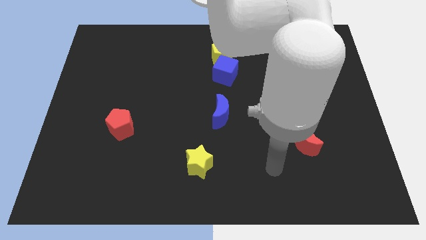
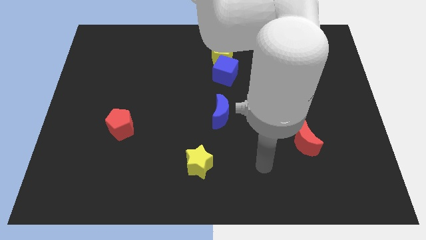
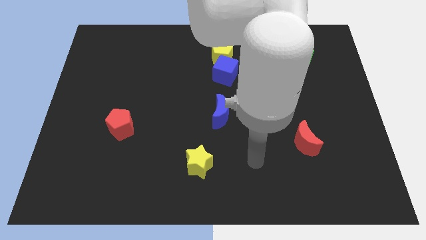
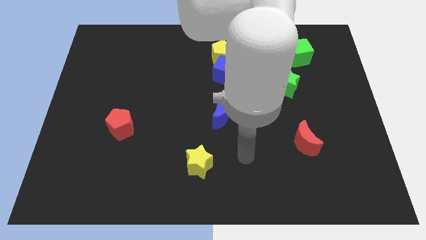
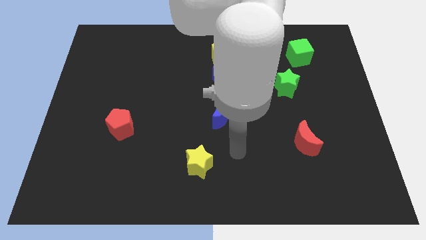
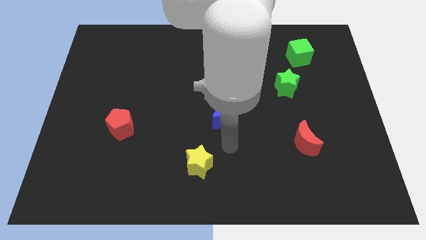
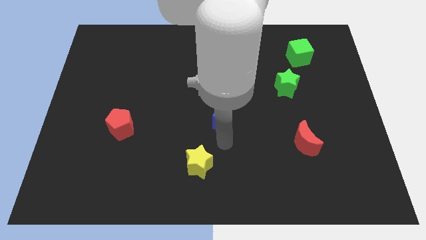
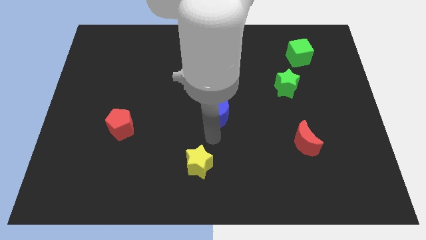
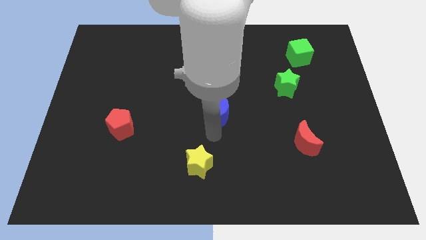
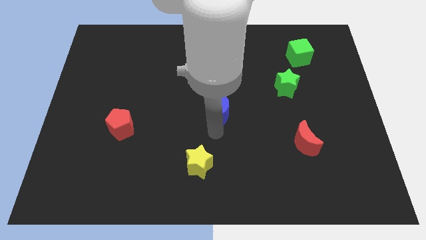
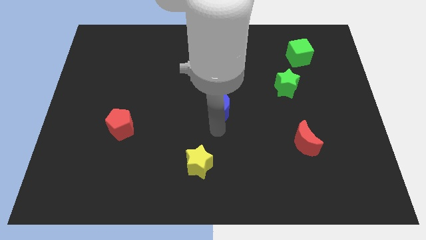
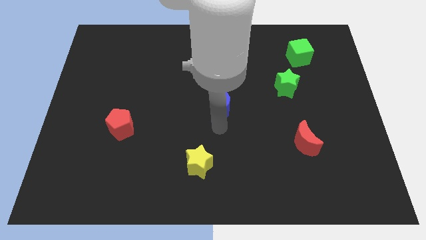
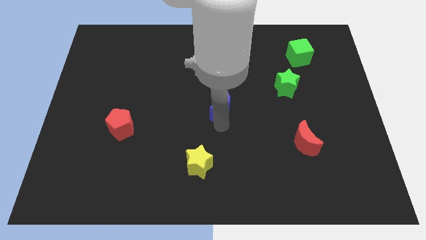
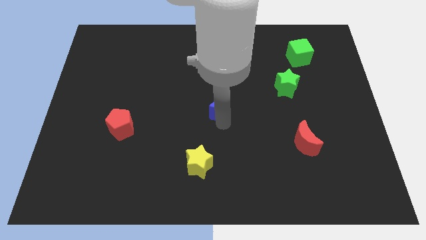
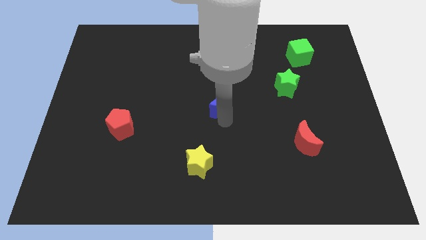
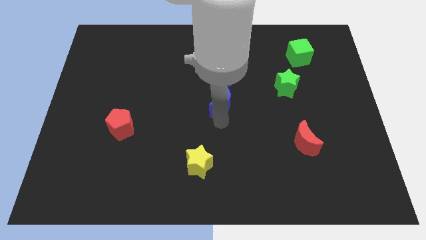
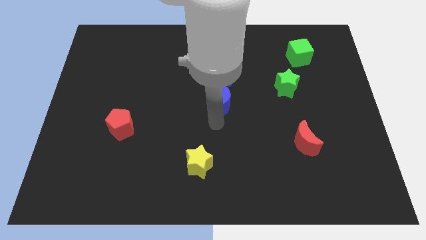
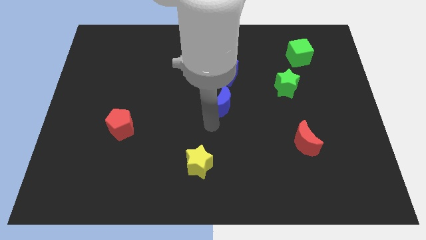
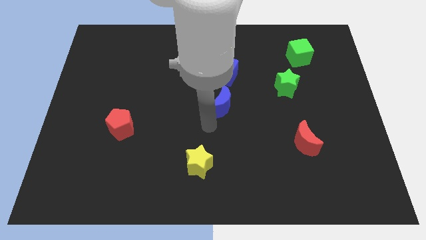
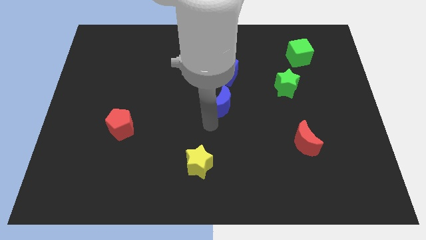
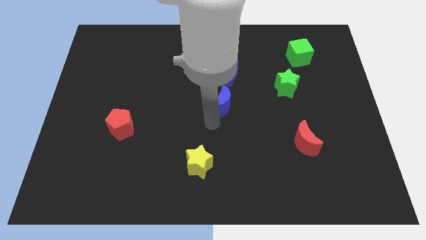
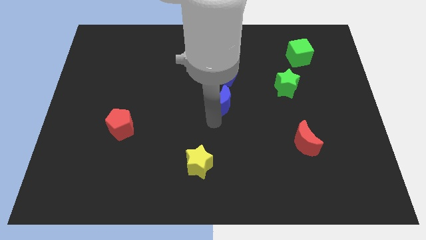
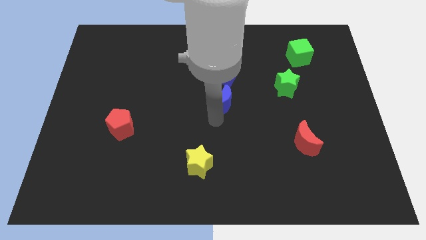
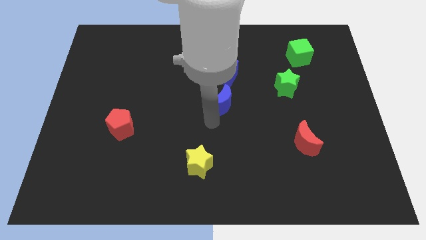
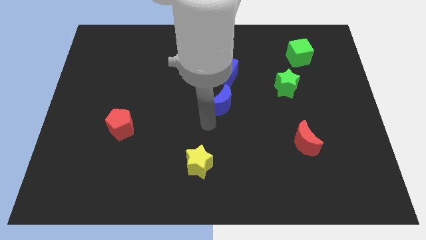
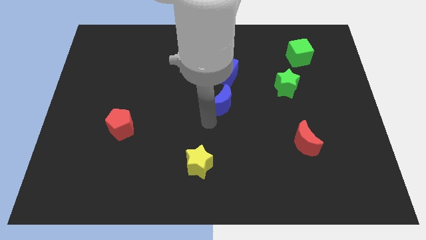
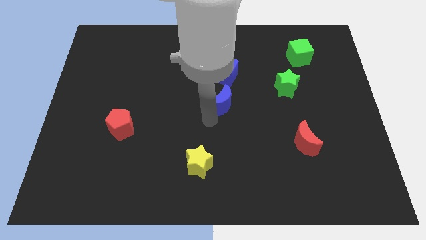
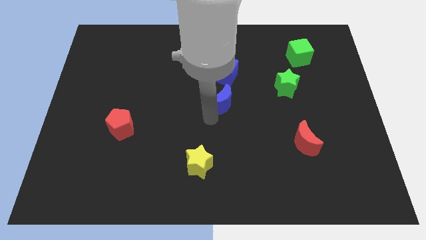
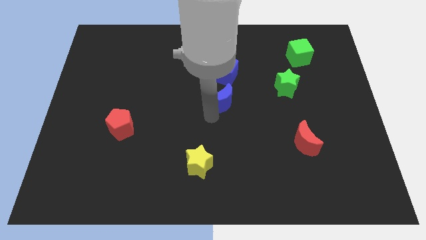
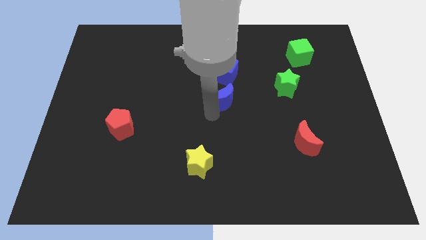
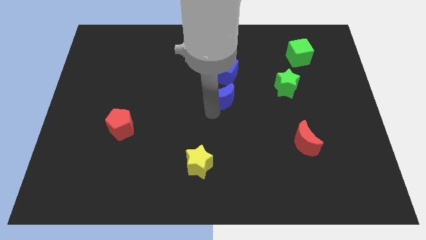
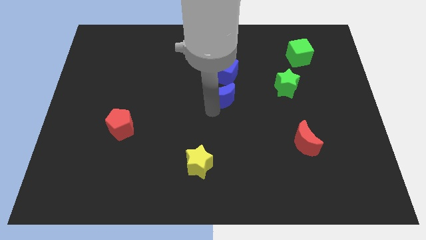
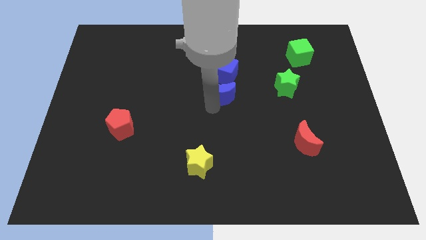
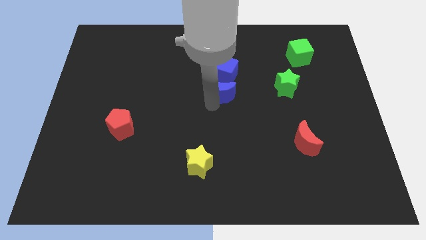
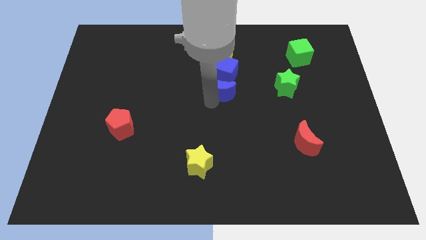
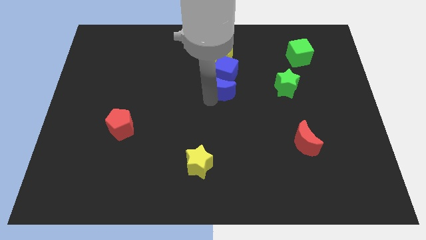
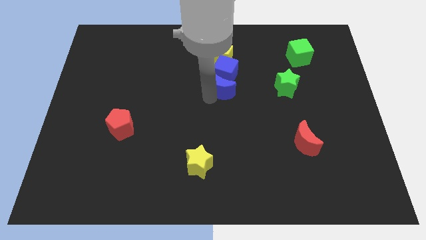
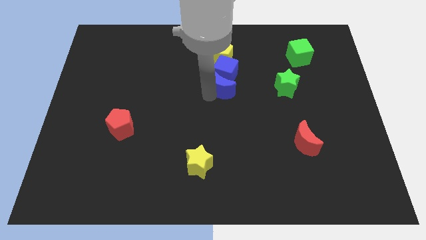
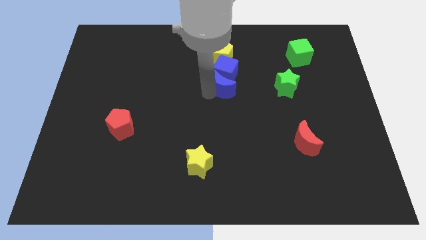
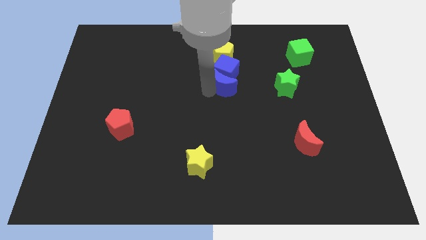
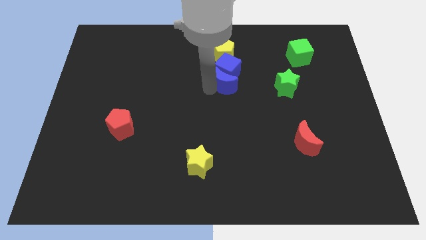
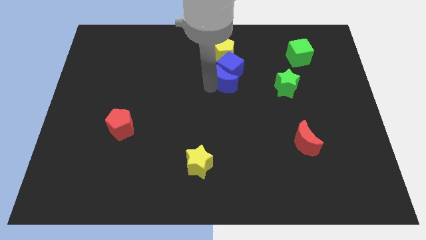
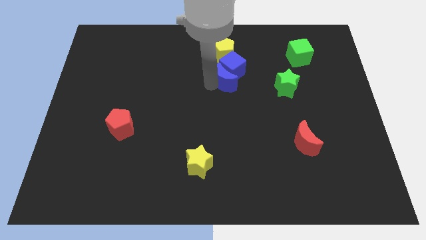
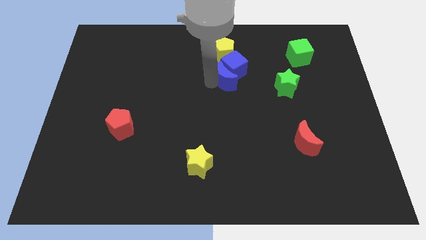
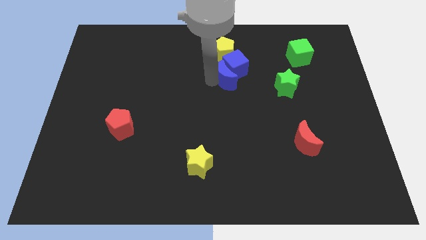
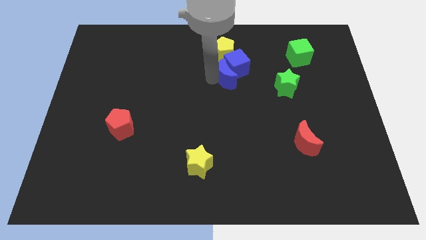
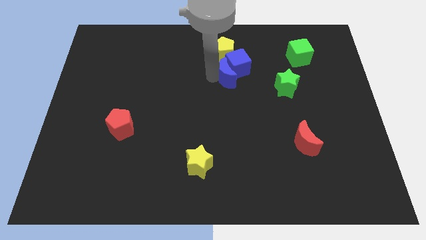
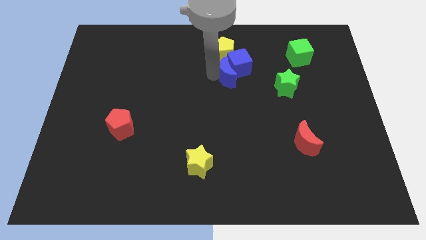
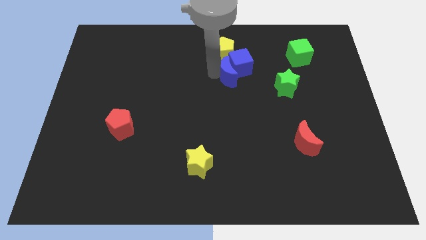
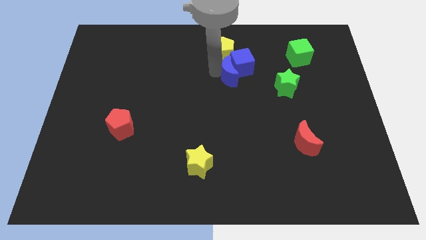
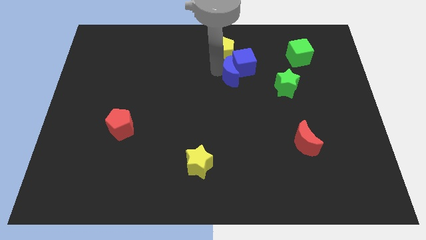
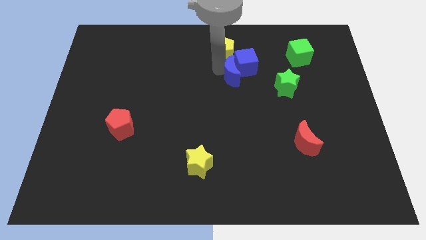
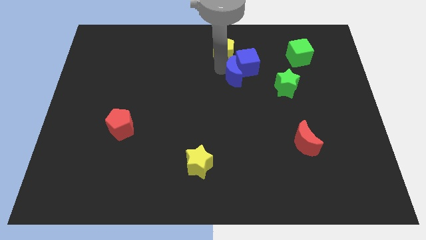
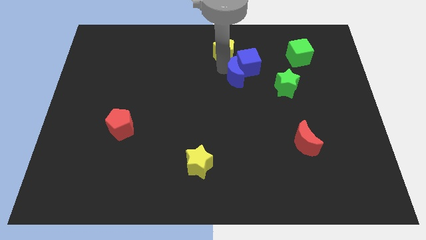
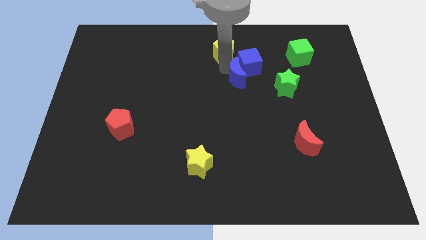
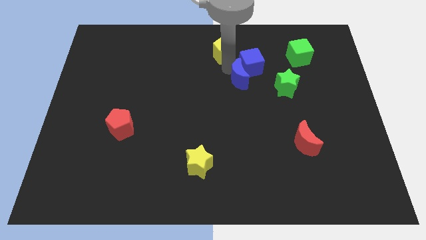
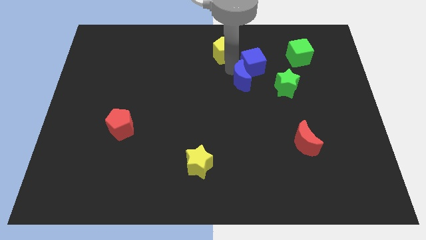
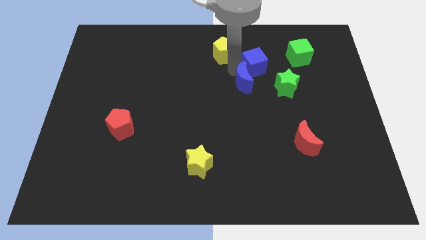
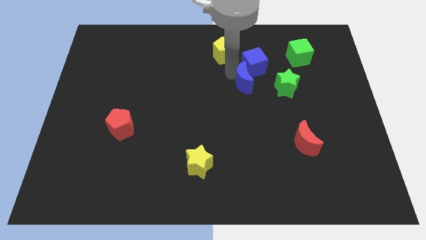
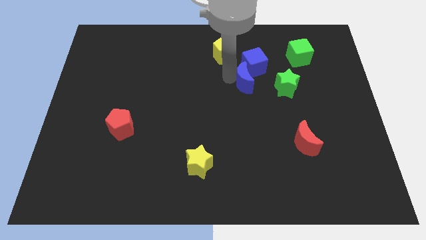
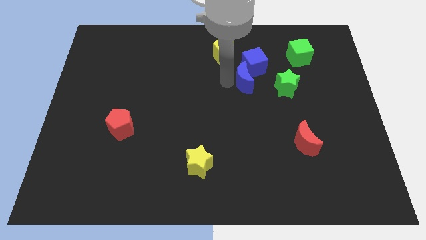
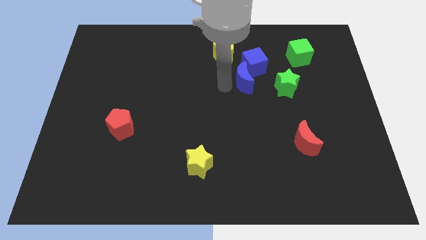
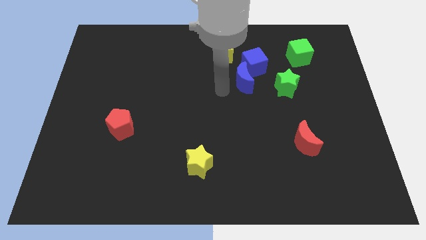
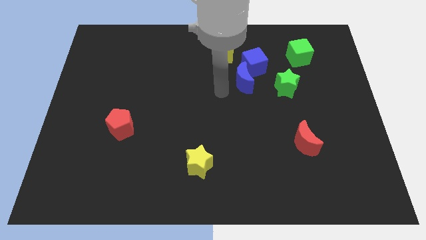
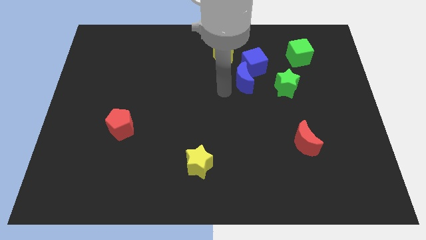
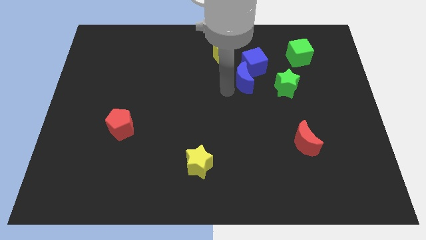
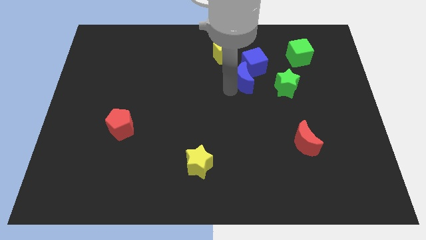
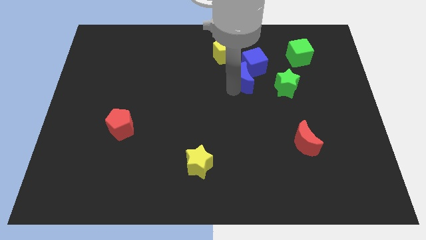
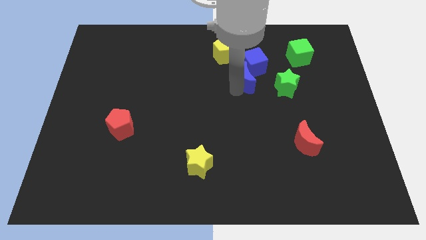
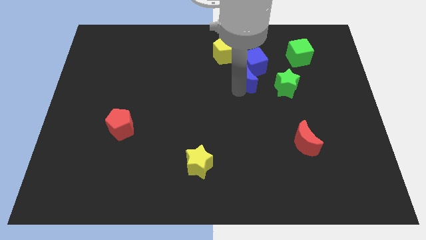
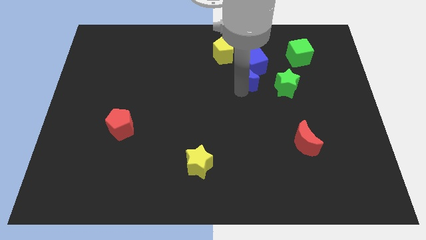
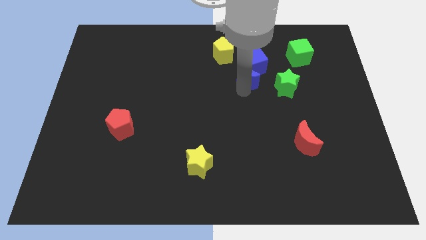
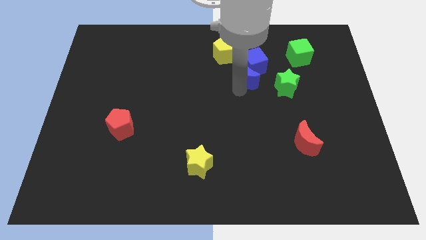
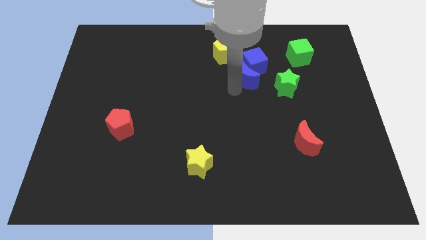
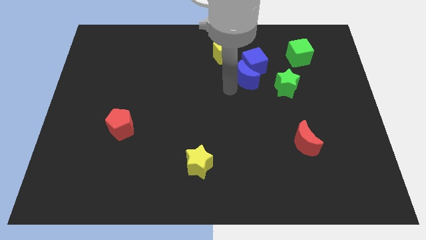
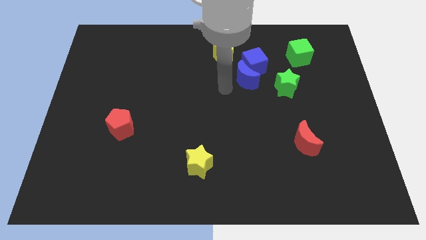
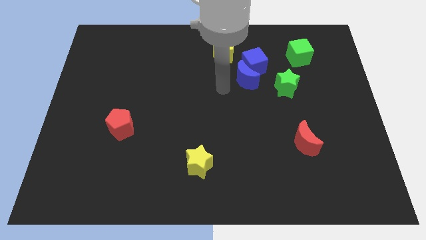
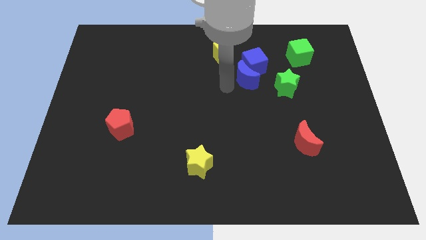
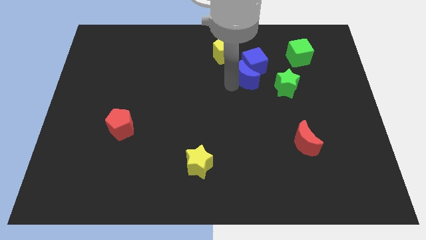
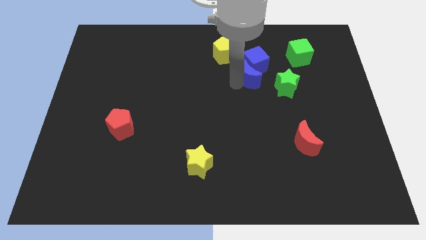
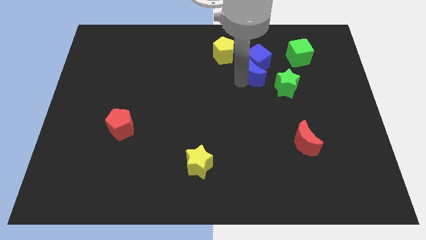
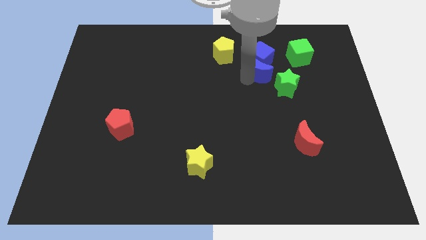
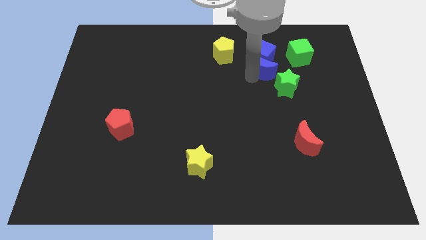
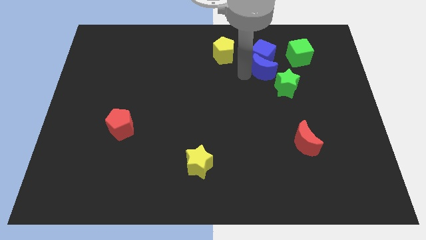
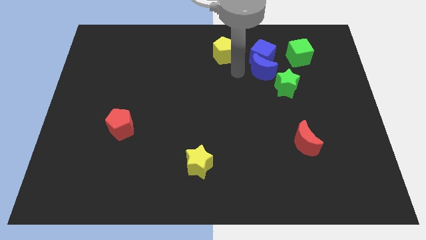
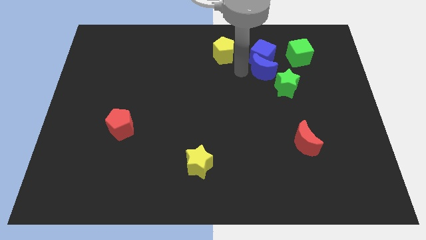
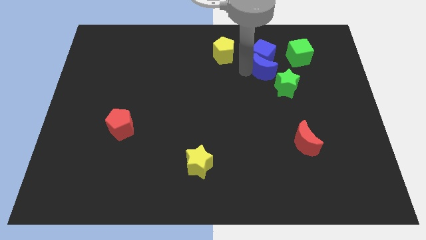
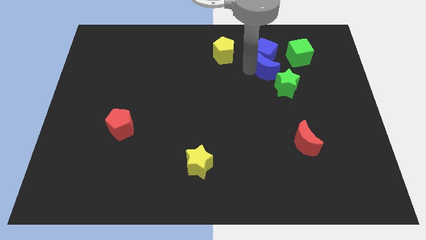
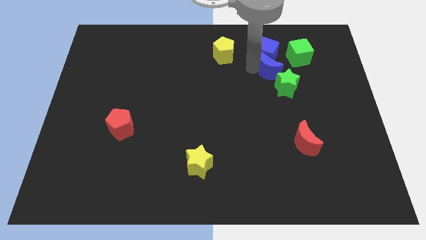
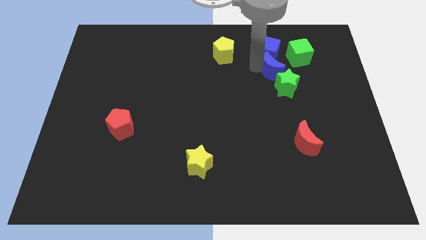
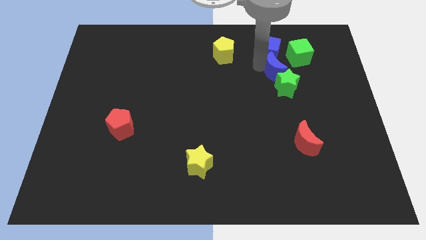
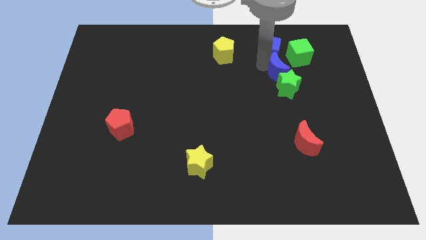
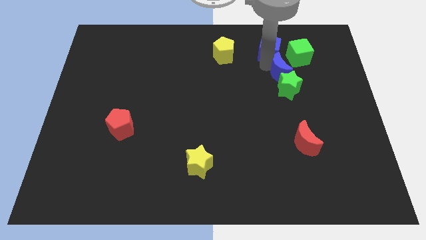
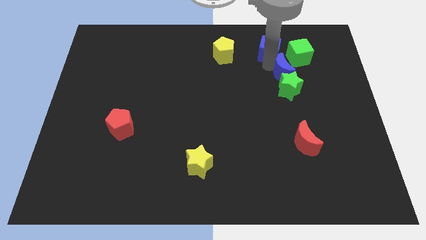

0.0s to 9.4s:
push the blue moon to the top right side of the green star
